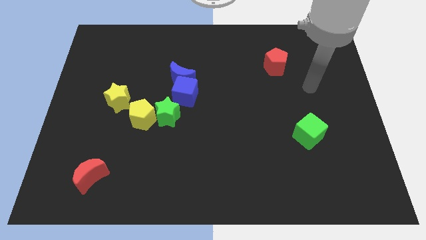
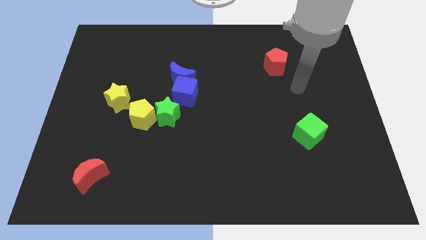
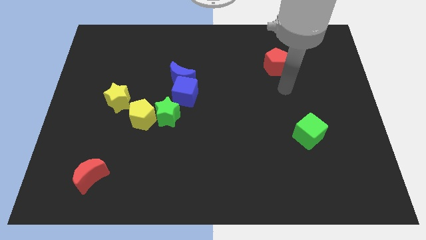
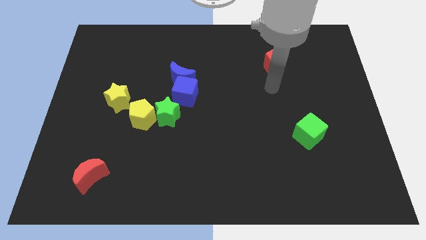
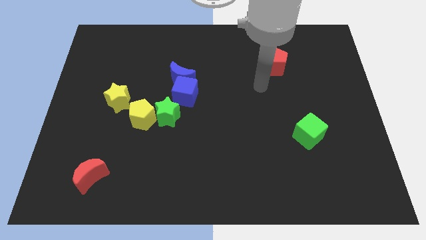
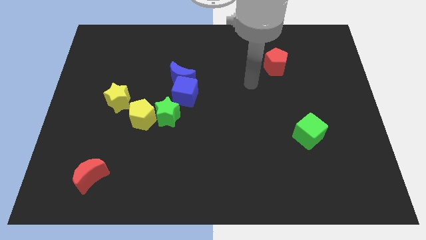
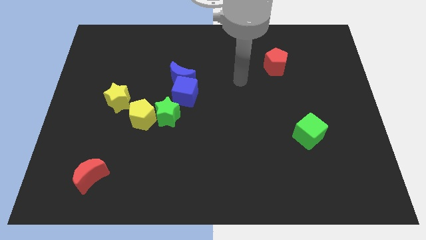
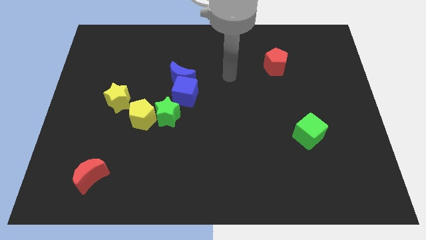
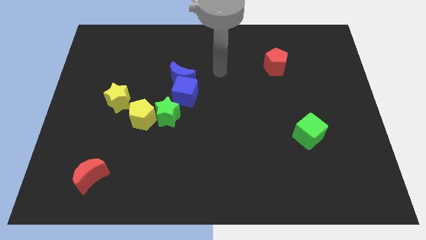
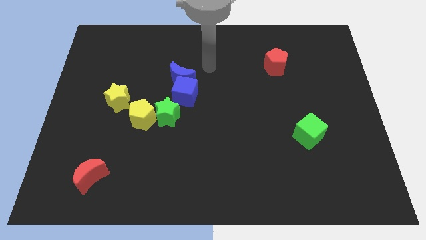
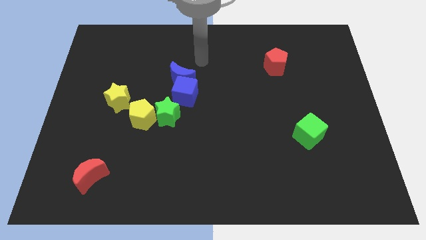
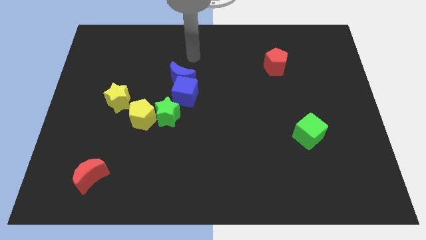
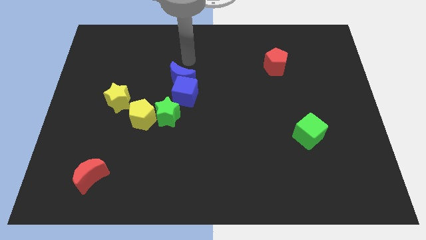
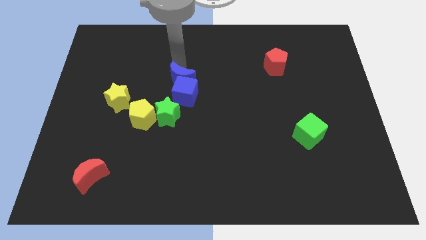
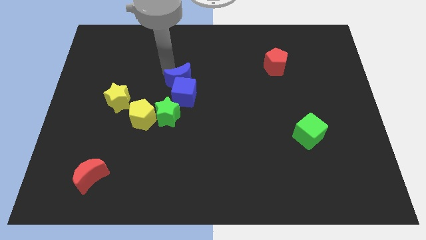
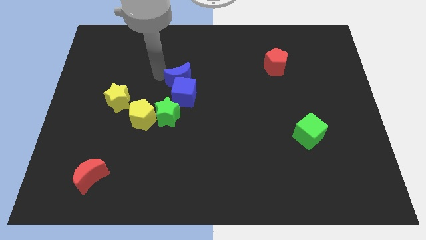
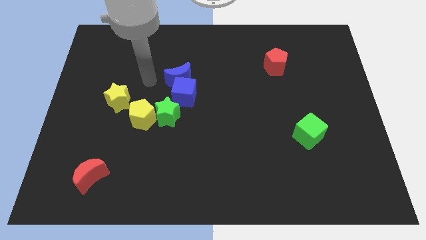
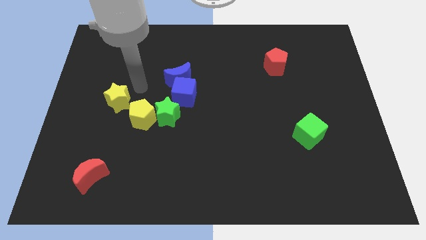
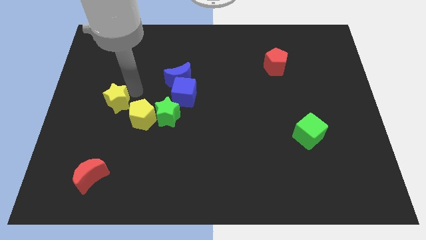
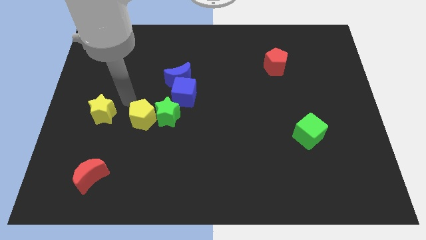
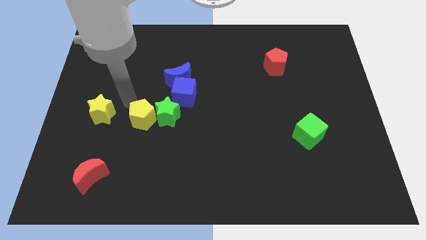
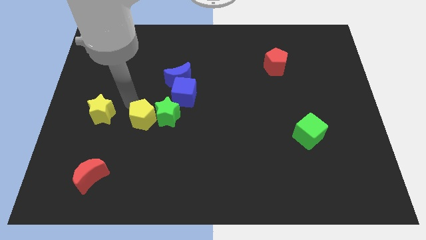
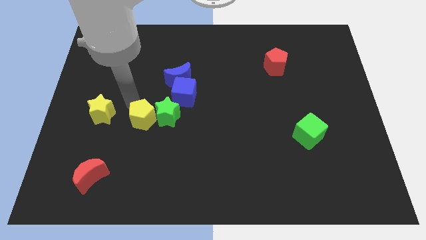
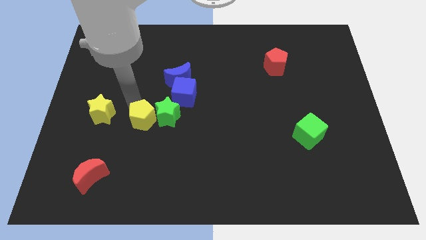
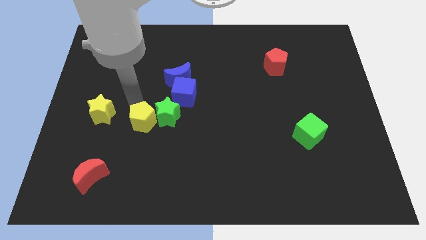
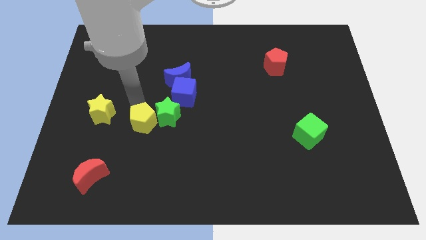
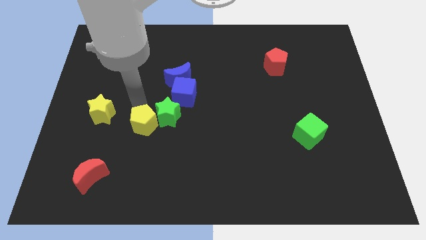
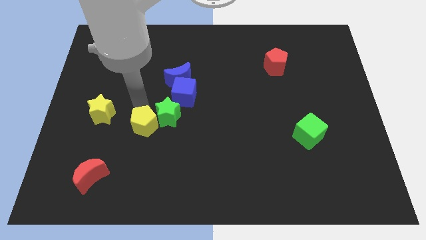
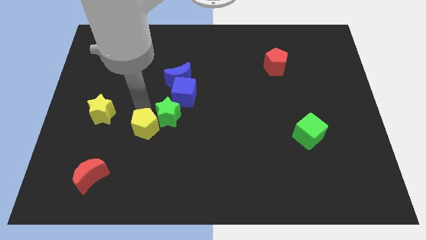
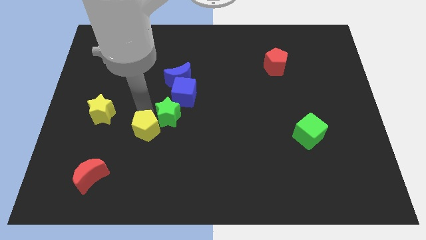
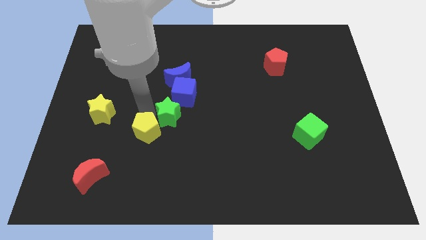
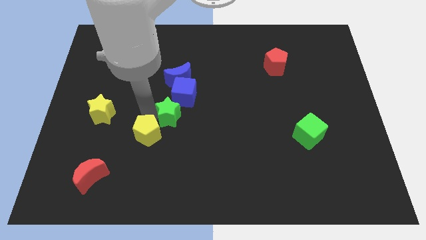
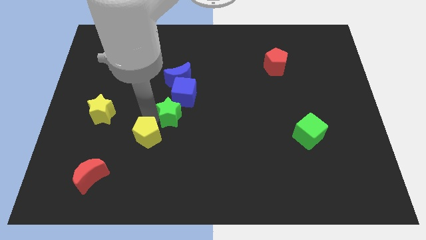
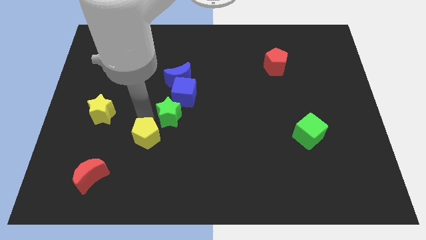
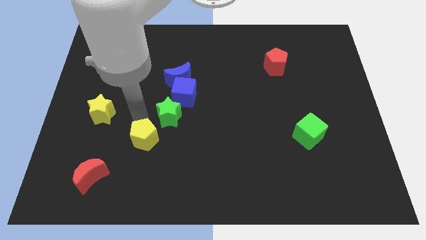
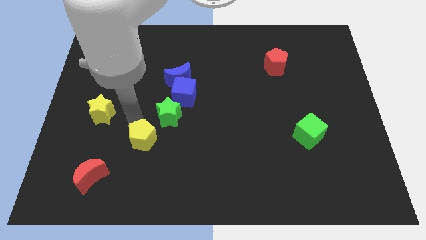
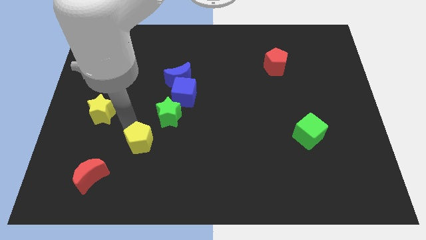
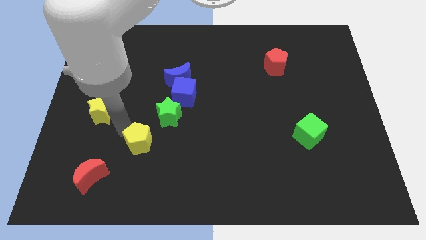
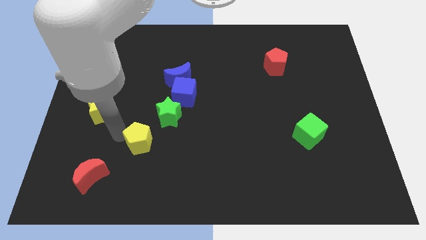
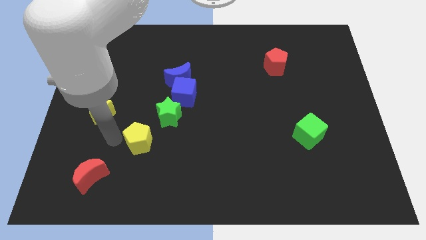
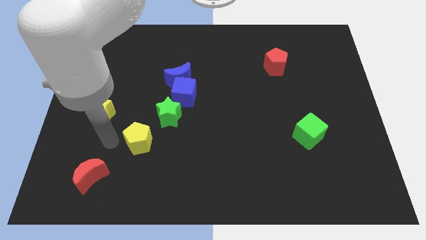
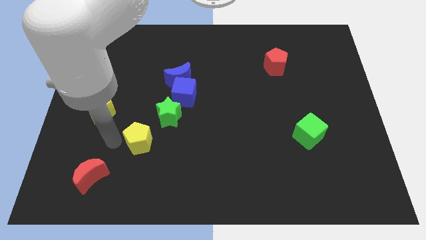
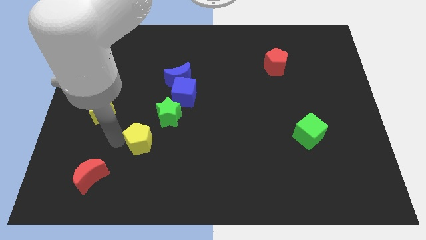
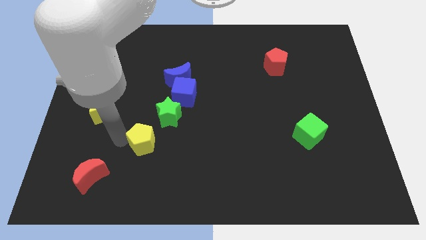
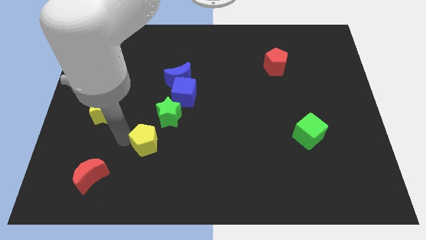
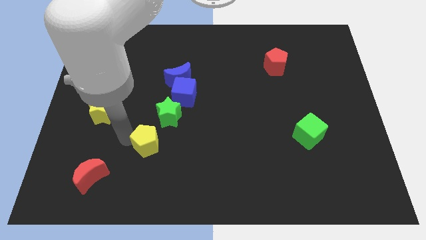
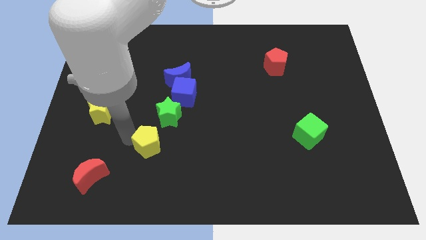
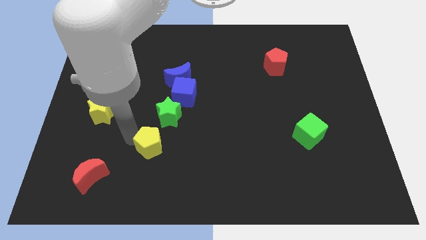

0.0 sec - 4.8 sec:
slide the yellow pentagon somewhat down and to the right

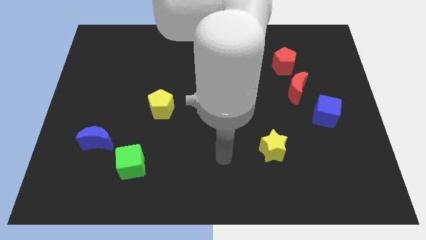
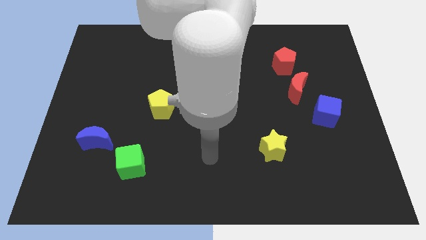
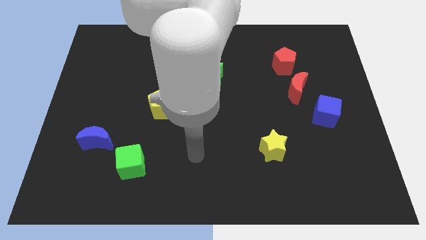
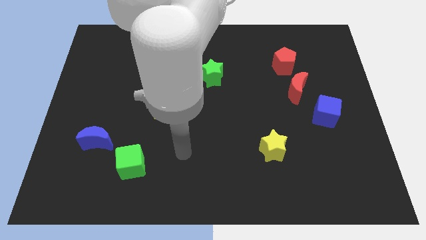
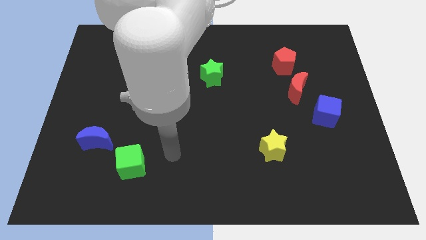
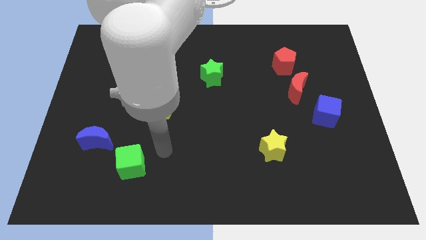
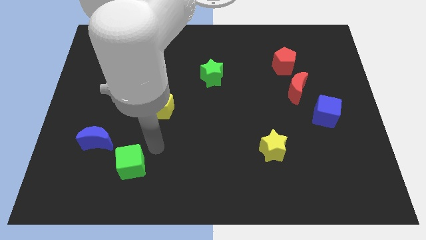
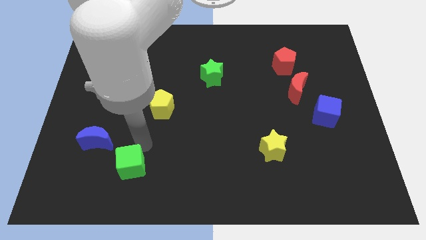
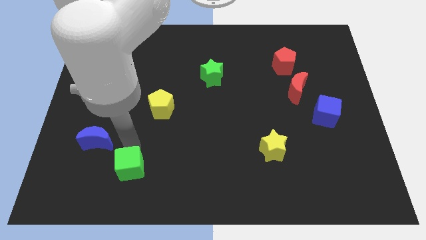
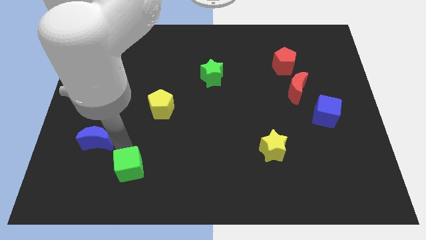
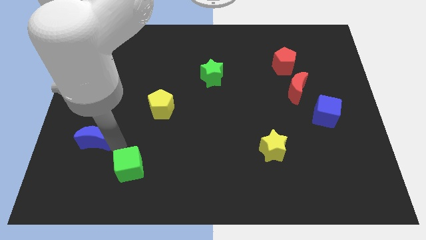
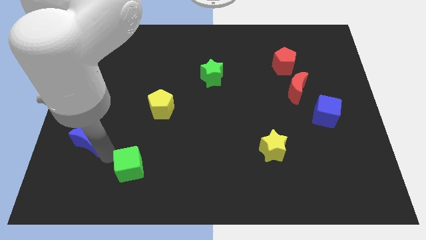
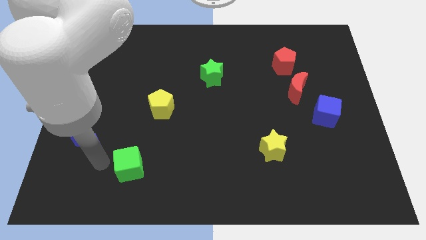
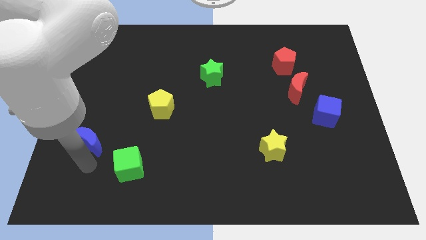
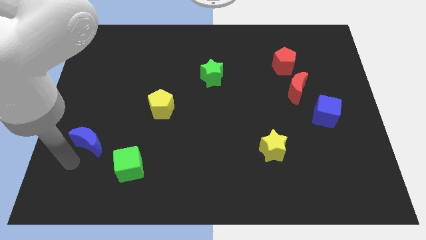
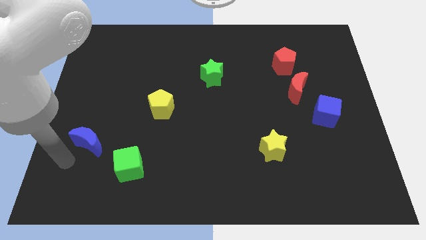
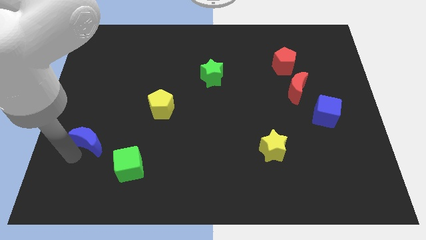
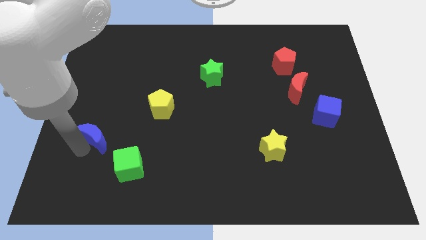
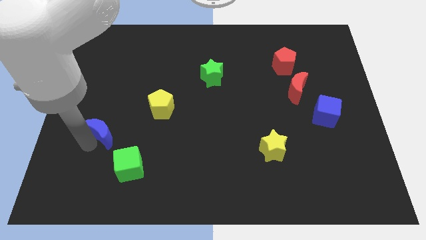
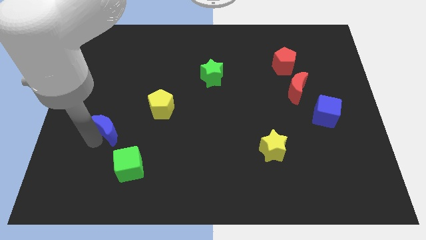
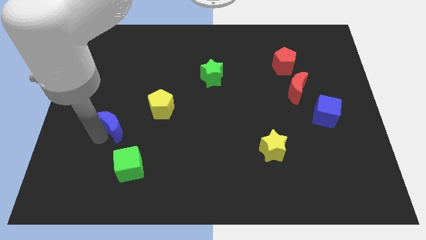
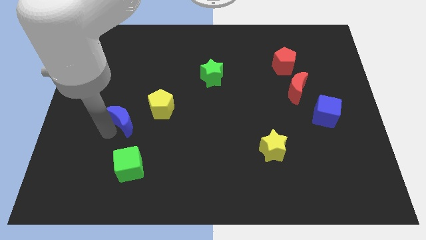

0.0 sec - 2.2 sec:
move the blue moon a little bit diagonally up and right

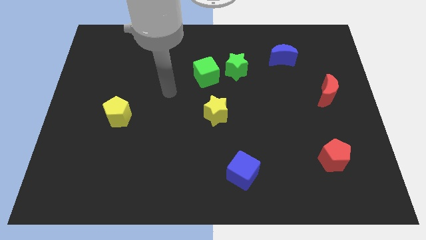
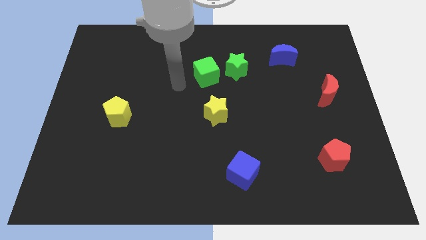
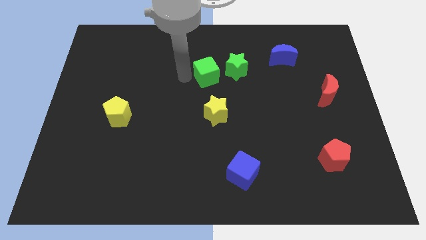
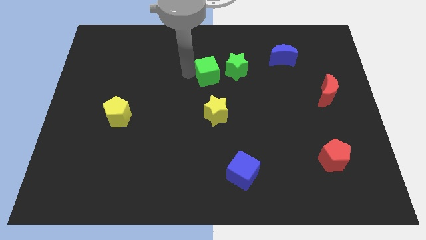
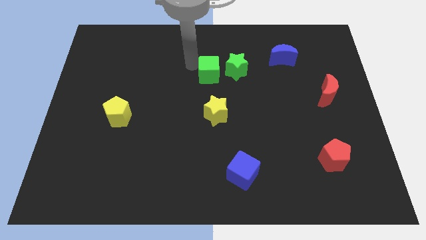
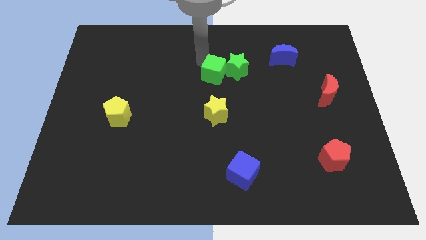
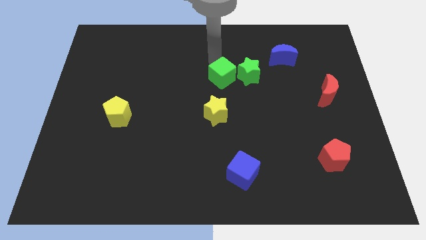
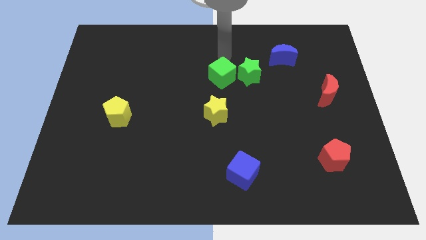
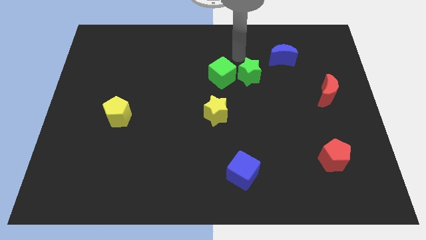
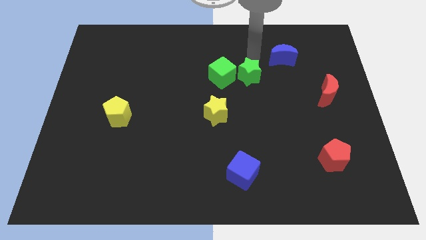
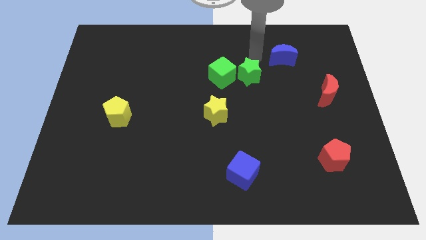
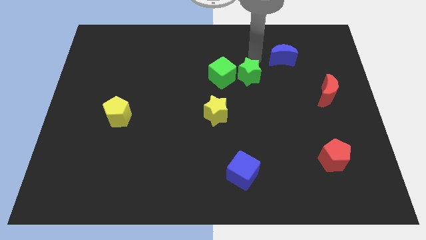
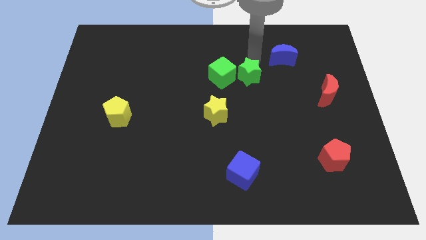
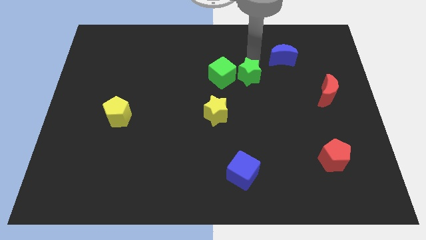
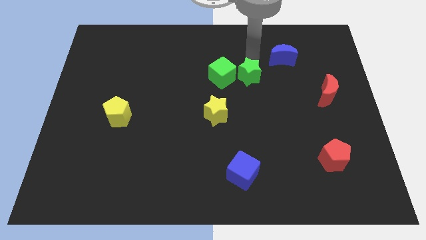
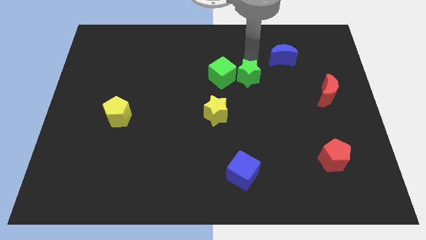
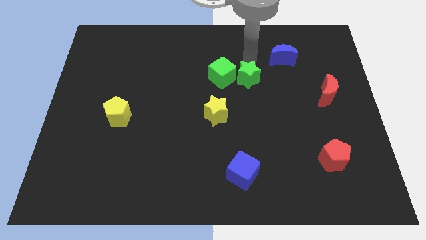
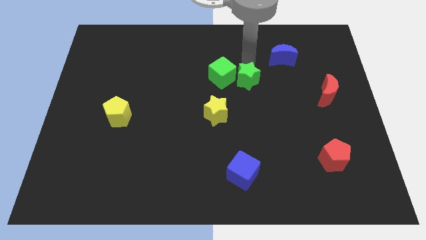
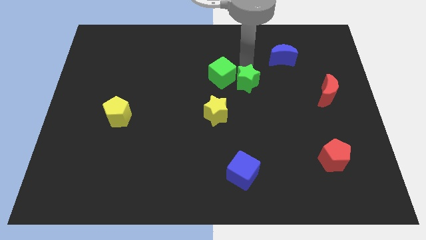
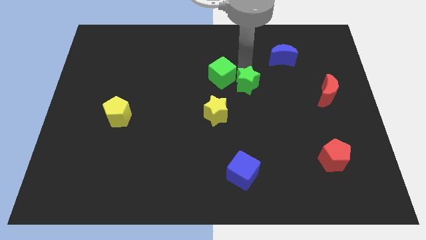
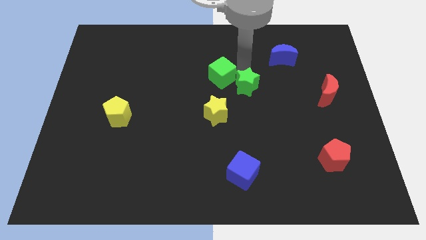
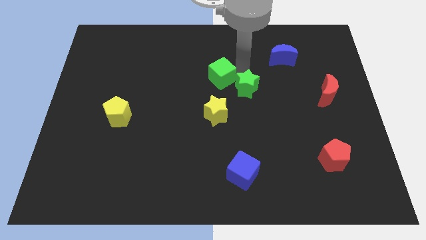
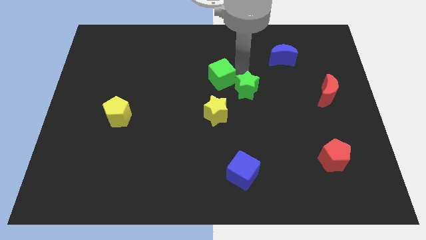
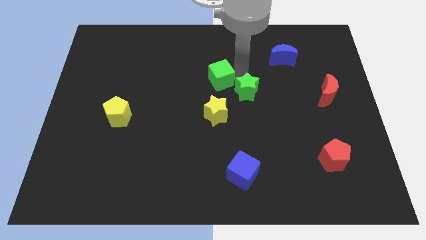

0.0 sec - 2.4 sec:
slide the green star slightly down
